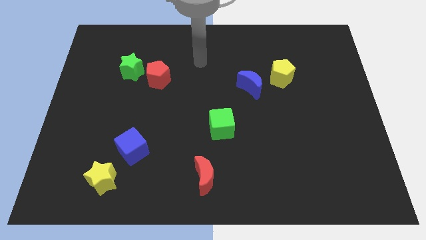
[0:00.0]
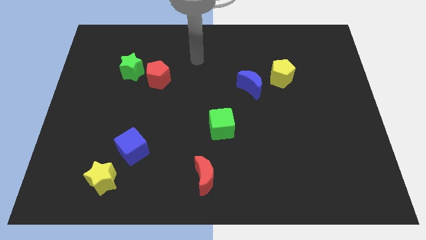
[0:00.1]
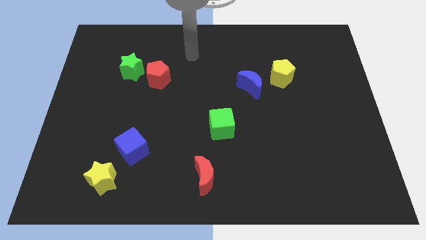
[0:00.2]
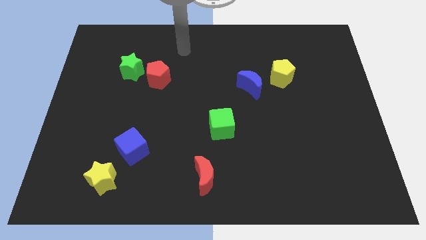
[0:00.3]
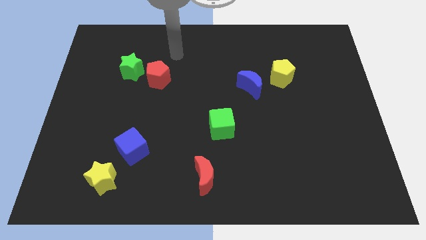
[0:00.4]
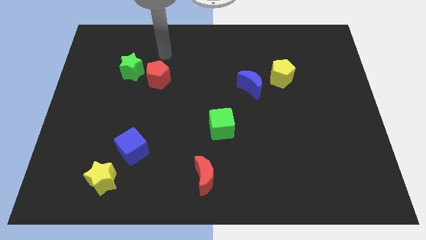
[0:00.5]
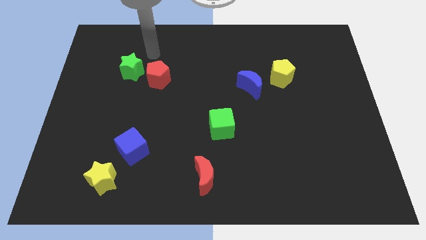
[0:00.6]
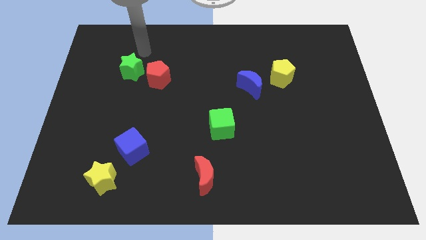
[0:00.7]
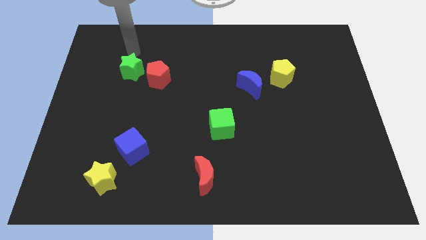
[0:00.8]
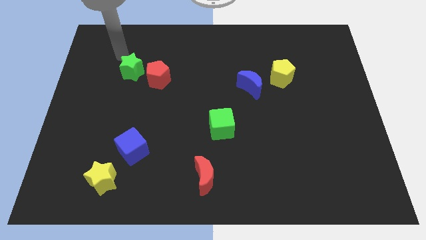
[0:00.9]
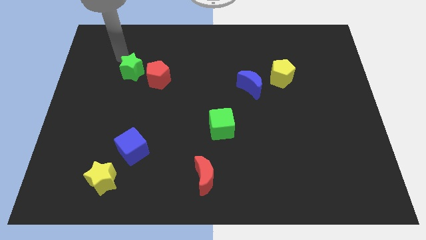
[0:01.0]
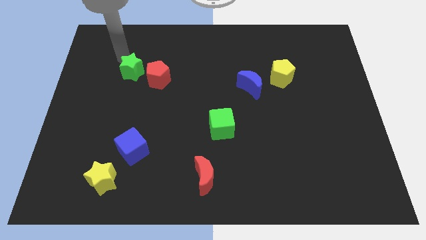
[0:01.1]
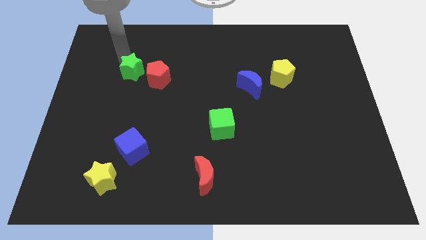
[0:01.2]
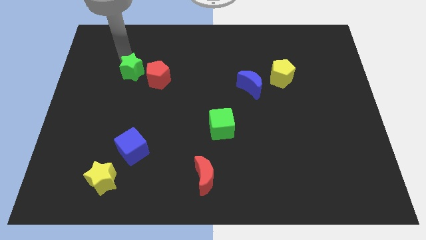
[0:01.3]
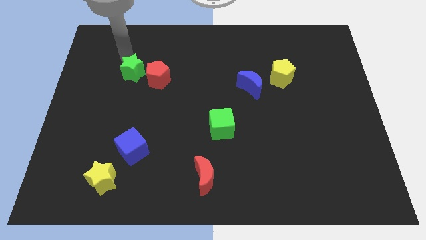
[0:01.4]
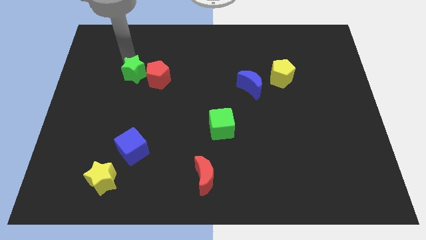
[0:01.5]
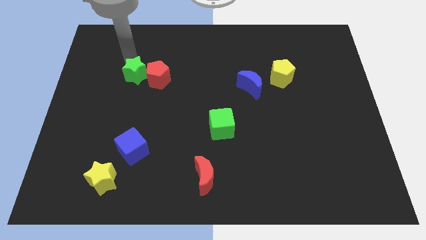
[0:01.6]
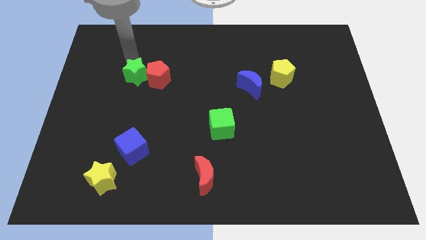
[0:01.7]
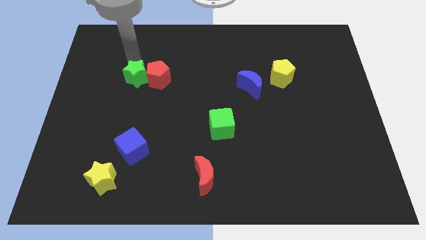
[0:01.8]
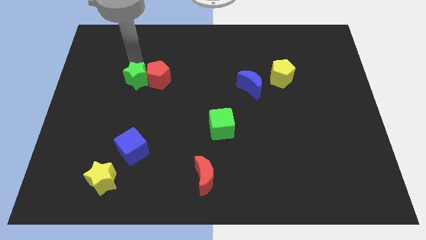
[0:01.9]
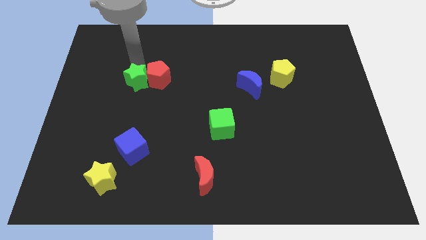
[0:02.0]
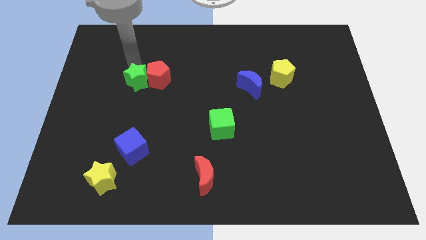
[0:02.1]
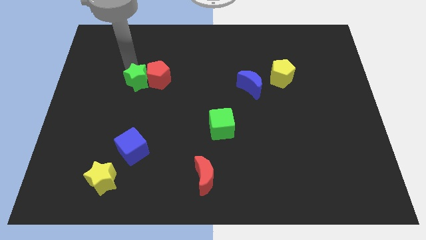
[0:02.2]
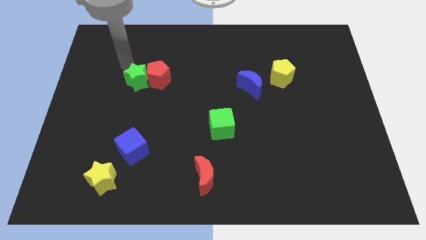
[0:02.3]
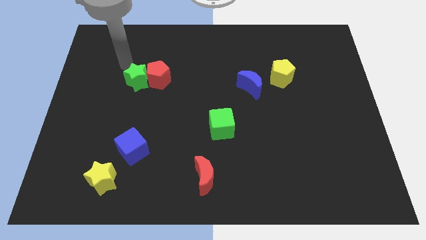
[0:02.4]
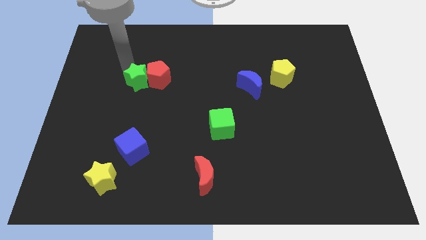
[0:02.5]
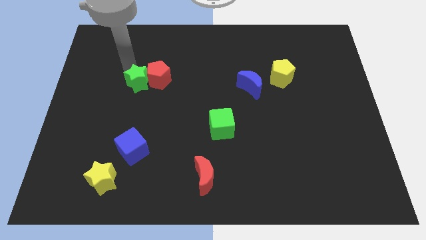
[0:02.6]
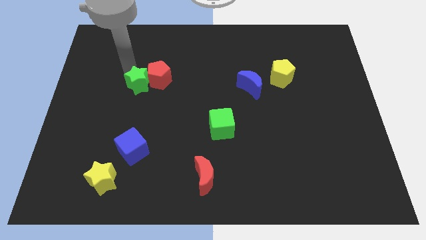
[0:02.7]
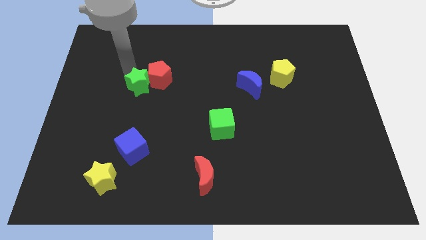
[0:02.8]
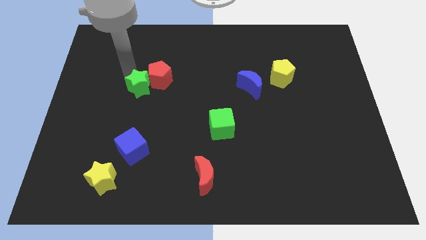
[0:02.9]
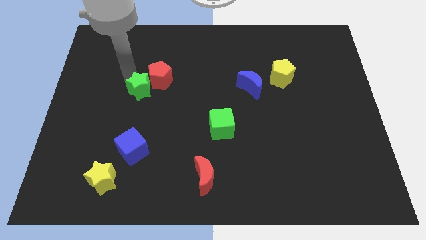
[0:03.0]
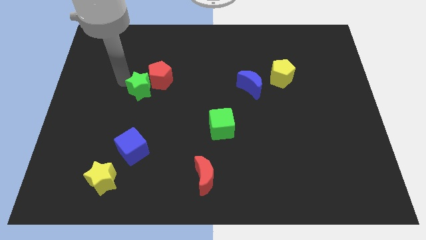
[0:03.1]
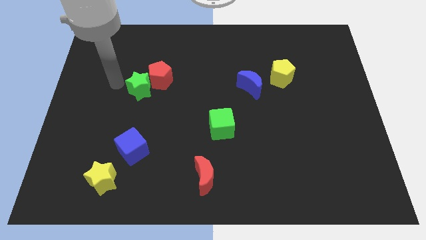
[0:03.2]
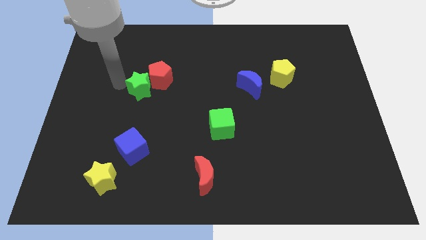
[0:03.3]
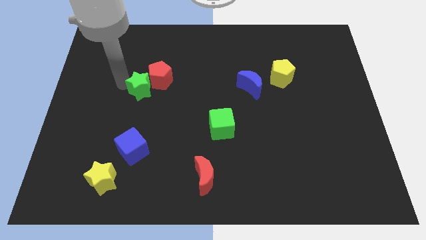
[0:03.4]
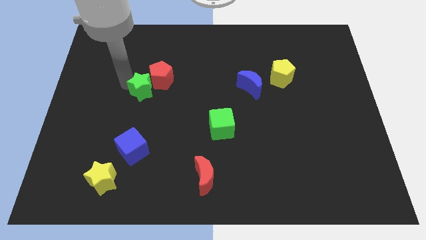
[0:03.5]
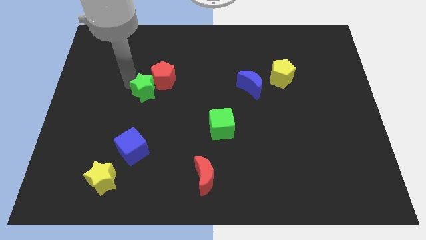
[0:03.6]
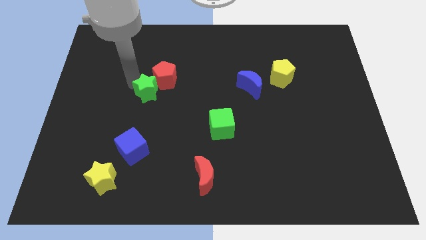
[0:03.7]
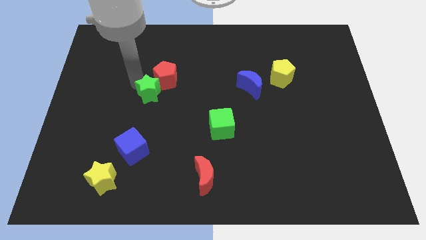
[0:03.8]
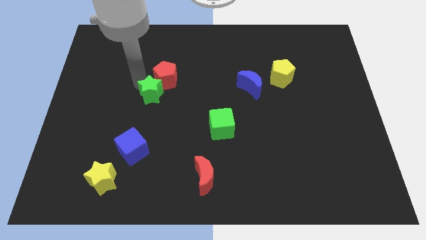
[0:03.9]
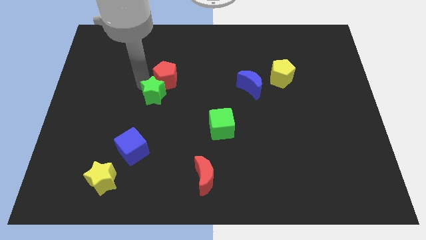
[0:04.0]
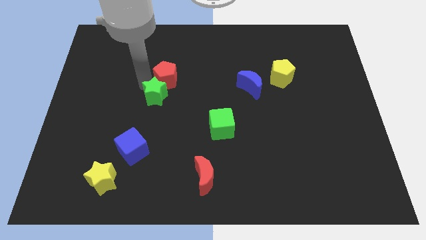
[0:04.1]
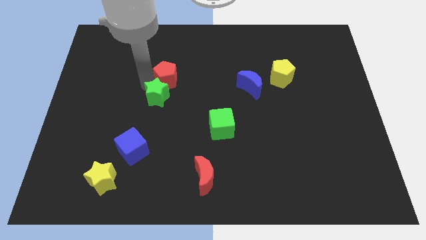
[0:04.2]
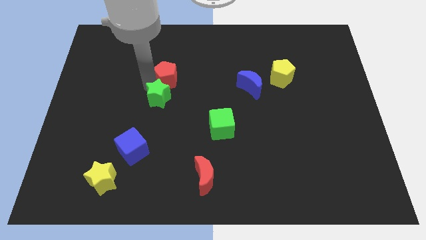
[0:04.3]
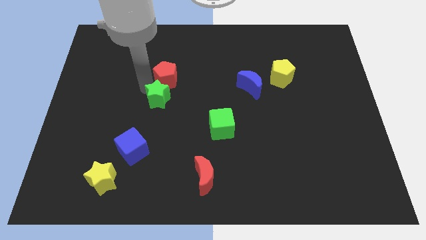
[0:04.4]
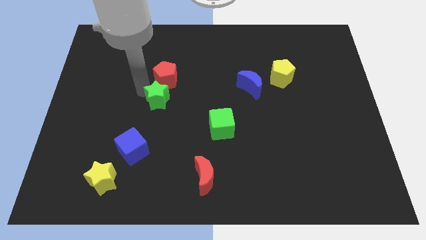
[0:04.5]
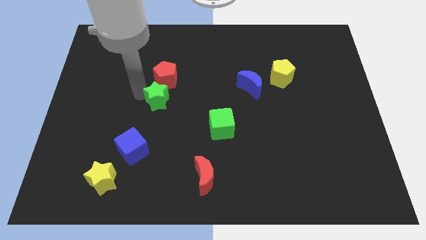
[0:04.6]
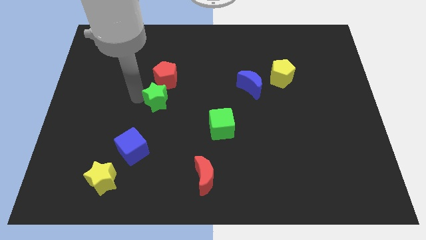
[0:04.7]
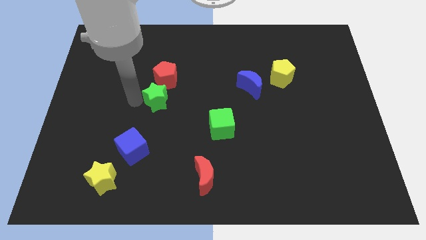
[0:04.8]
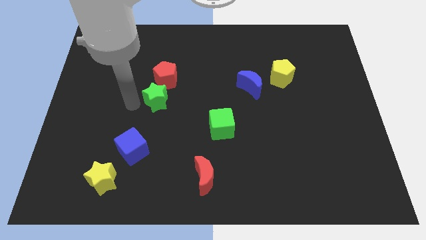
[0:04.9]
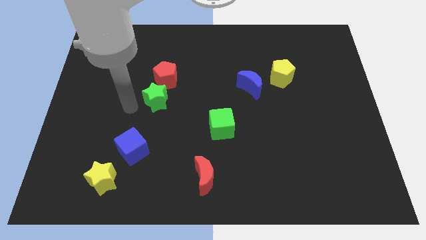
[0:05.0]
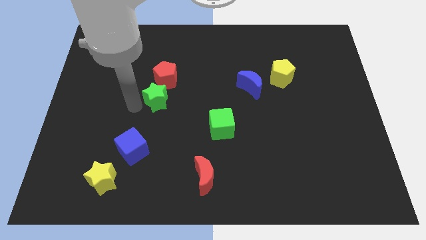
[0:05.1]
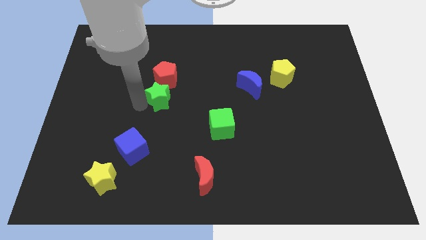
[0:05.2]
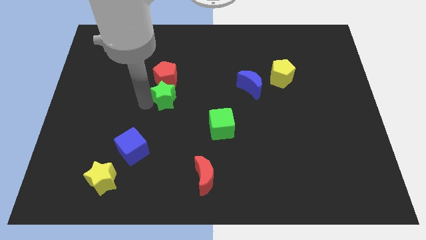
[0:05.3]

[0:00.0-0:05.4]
push the green star to the middle

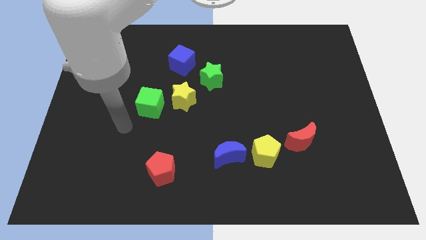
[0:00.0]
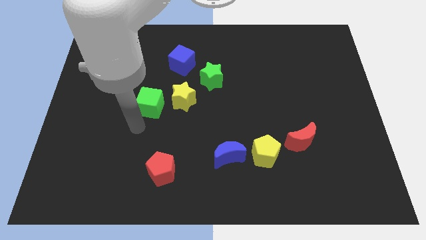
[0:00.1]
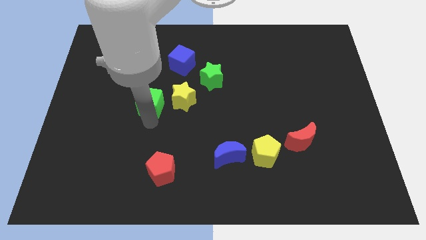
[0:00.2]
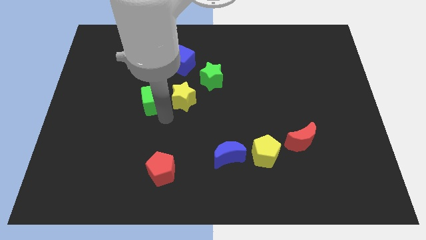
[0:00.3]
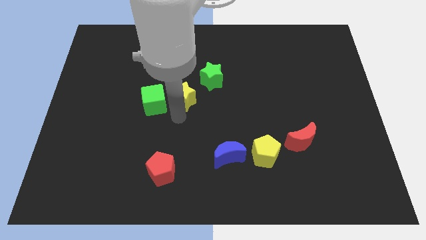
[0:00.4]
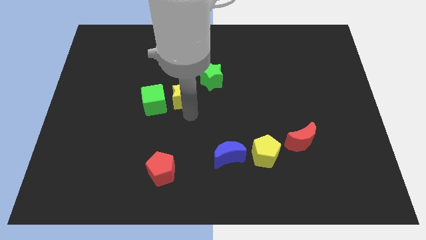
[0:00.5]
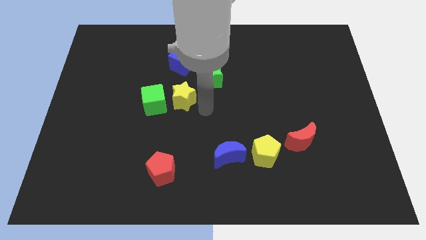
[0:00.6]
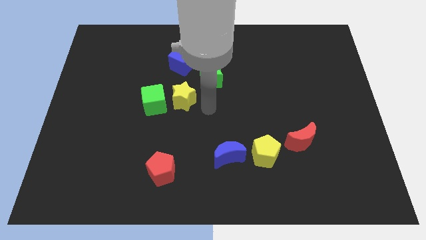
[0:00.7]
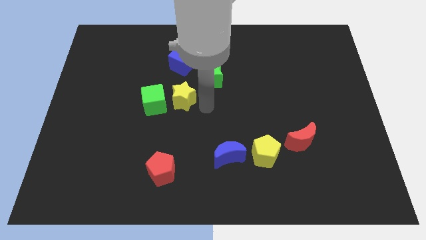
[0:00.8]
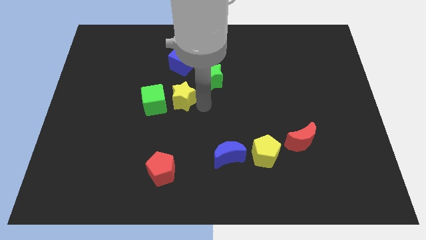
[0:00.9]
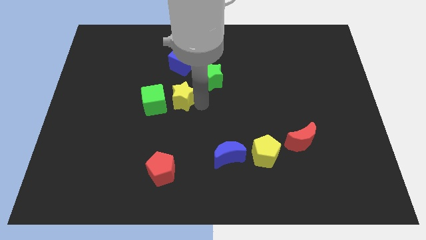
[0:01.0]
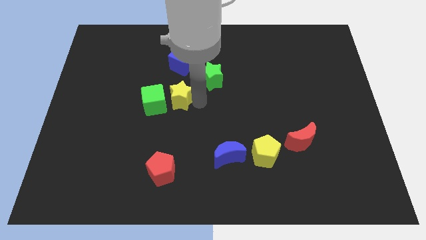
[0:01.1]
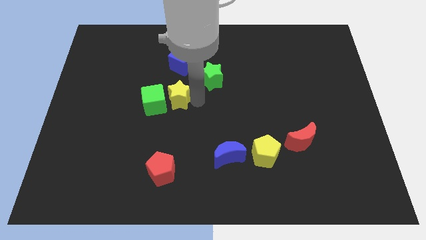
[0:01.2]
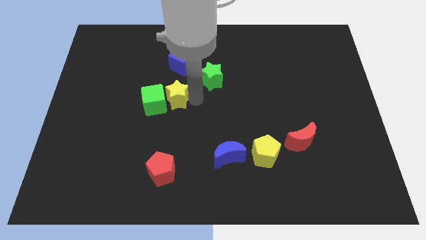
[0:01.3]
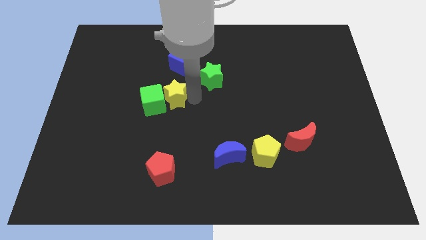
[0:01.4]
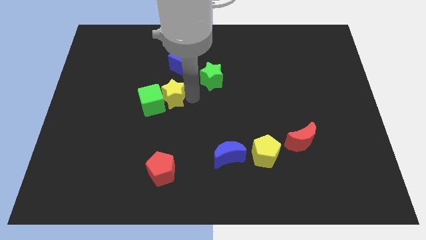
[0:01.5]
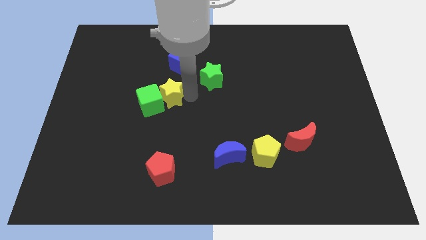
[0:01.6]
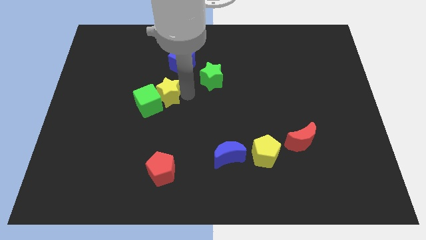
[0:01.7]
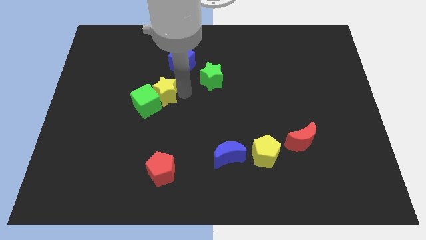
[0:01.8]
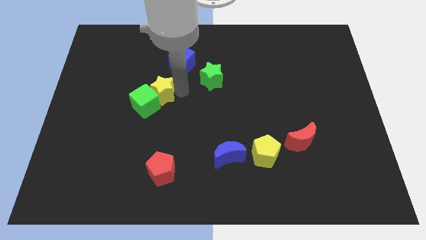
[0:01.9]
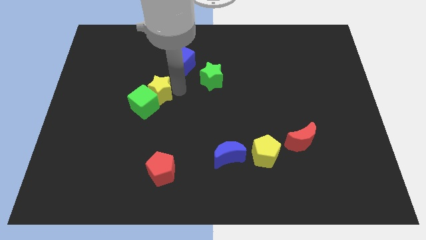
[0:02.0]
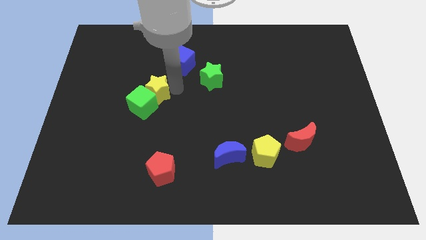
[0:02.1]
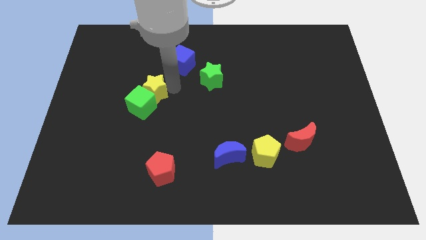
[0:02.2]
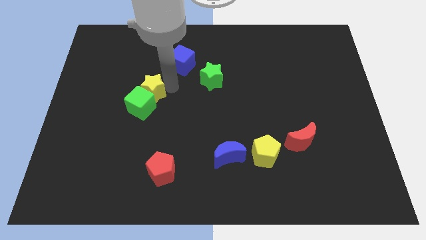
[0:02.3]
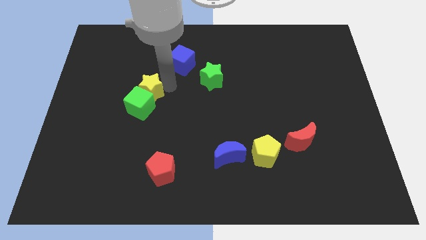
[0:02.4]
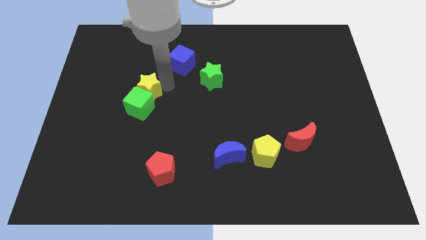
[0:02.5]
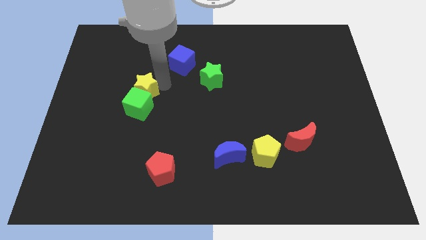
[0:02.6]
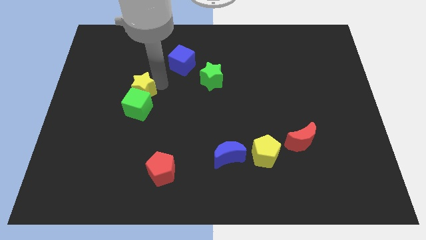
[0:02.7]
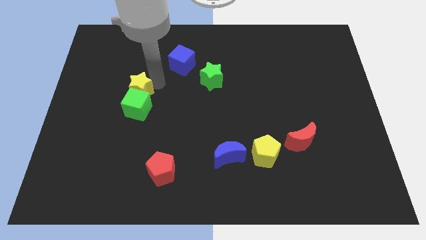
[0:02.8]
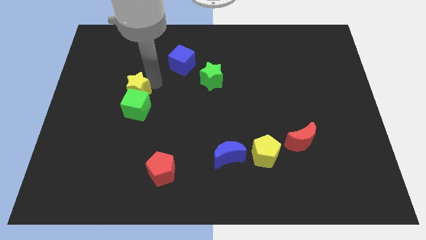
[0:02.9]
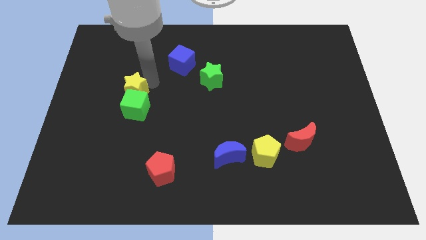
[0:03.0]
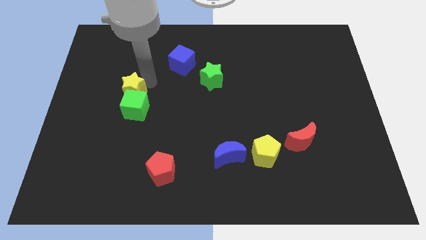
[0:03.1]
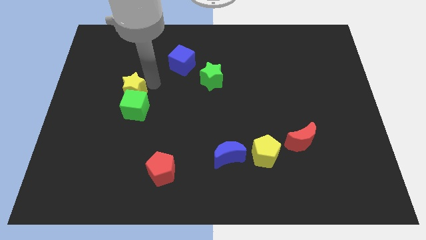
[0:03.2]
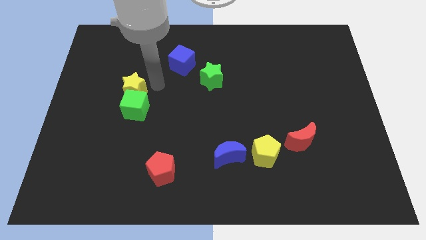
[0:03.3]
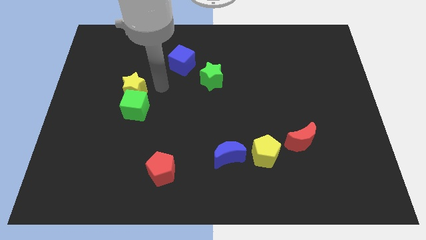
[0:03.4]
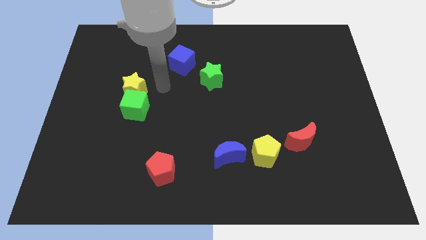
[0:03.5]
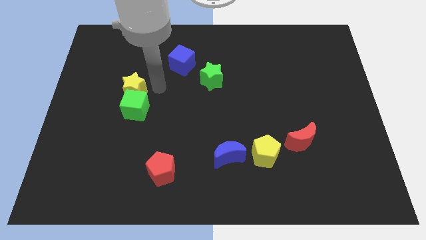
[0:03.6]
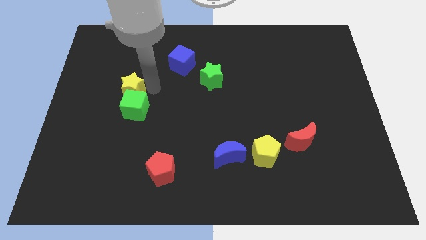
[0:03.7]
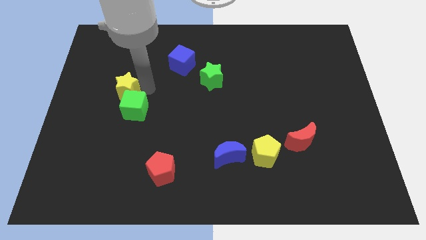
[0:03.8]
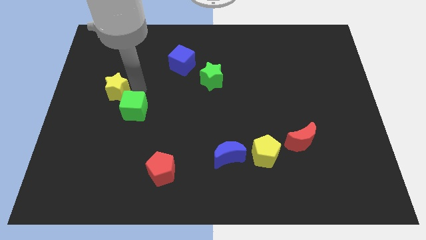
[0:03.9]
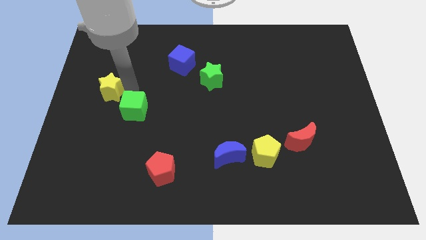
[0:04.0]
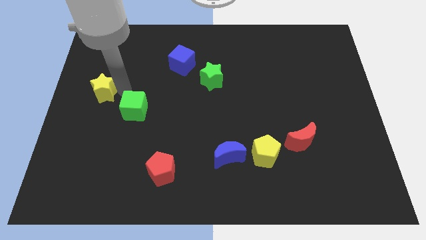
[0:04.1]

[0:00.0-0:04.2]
slide the yellow star to the left side
